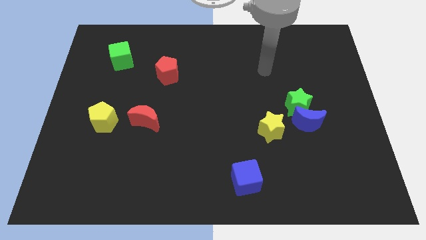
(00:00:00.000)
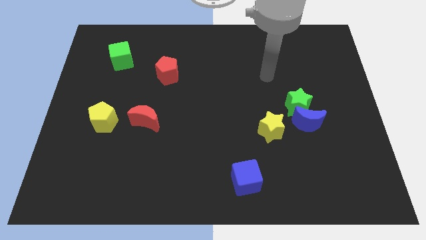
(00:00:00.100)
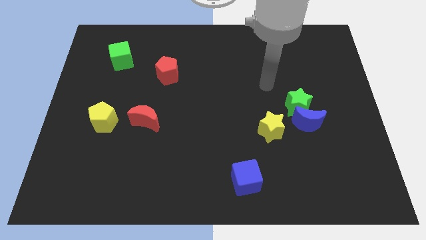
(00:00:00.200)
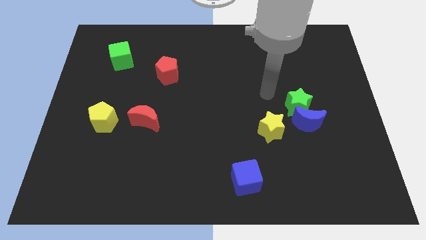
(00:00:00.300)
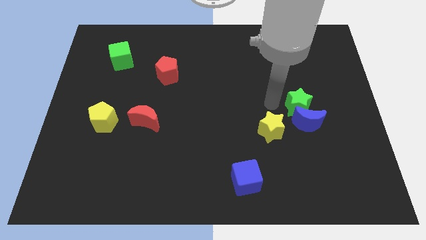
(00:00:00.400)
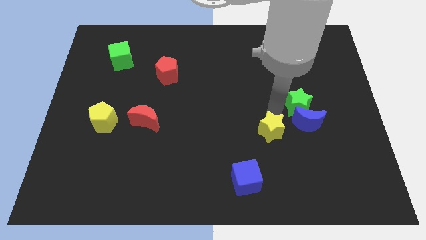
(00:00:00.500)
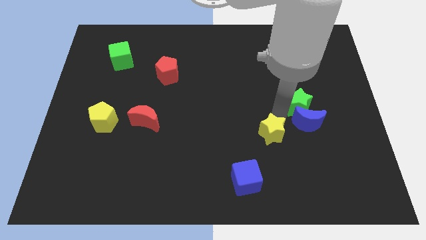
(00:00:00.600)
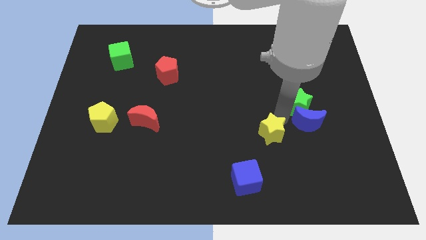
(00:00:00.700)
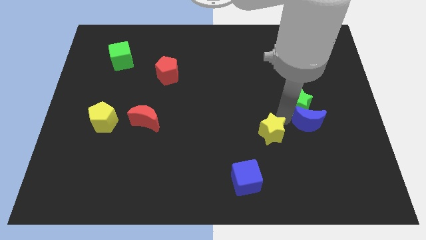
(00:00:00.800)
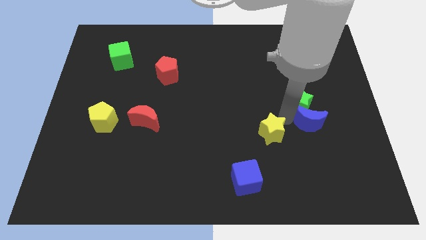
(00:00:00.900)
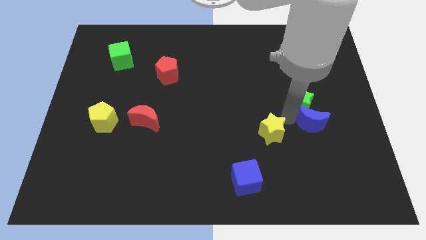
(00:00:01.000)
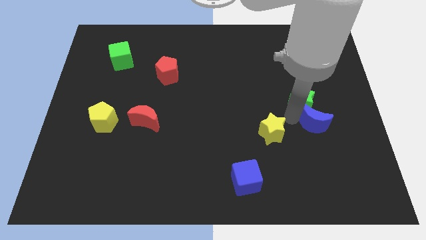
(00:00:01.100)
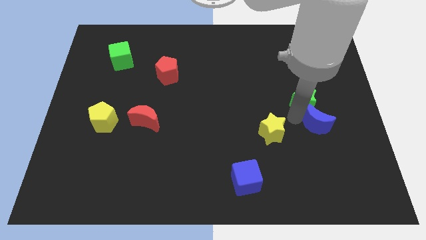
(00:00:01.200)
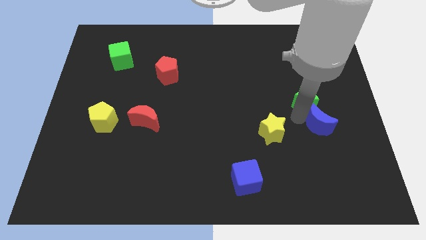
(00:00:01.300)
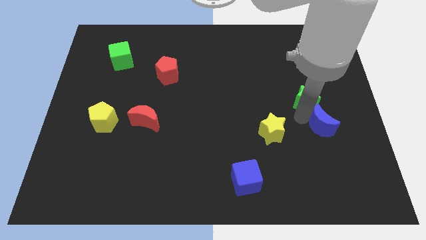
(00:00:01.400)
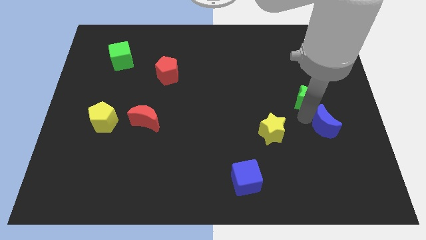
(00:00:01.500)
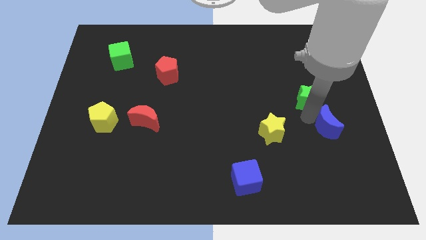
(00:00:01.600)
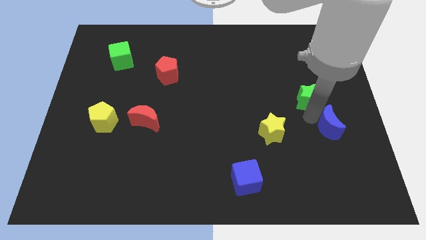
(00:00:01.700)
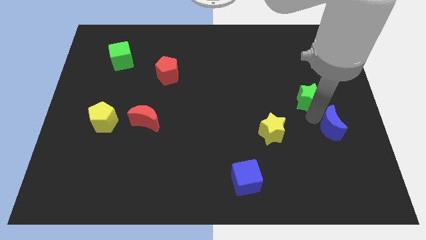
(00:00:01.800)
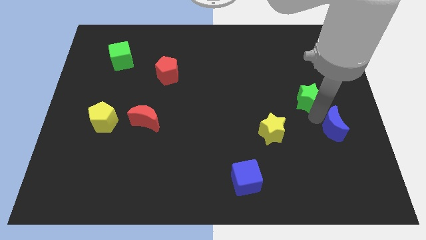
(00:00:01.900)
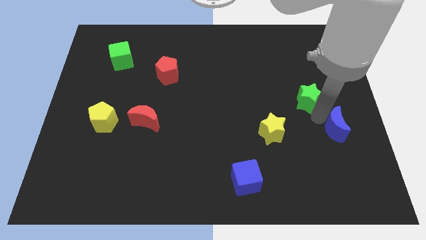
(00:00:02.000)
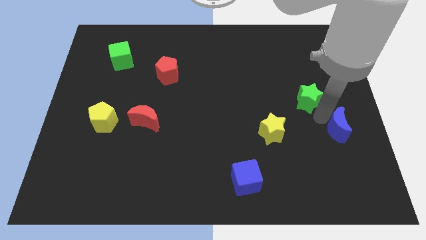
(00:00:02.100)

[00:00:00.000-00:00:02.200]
move the blue moon away from the green star and yellow star

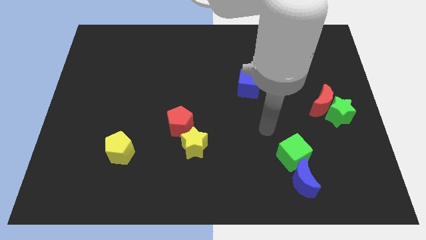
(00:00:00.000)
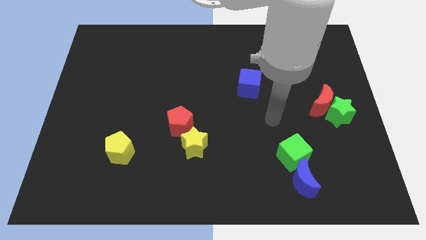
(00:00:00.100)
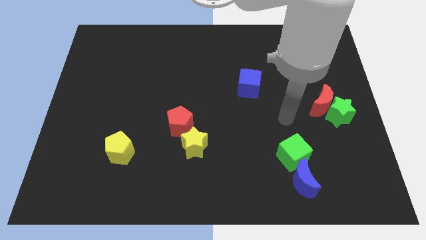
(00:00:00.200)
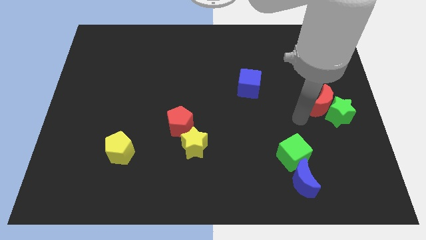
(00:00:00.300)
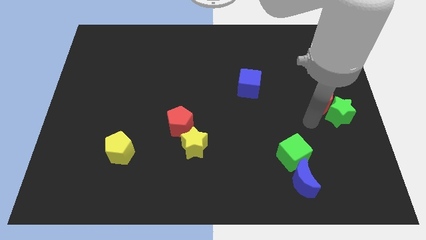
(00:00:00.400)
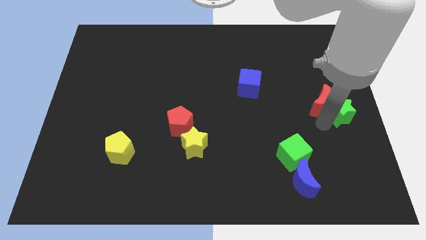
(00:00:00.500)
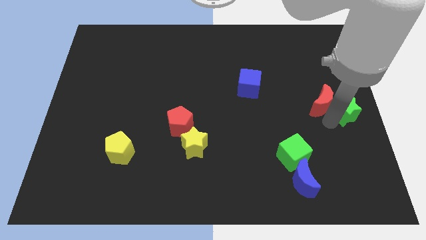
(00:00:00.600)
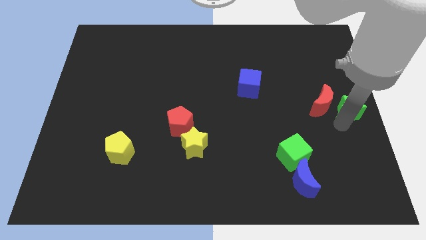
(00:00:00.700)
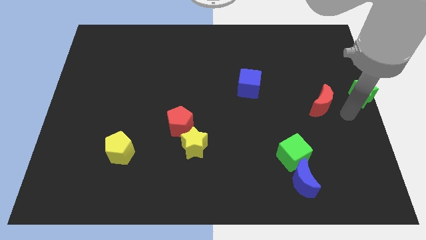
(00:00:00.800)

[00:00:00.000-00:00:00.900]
move the red moon away from the green star

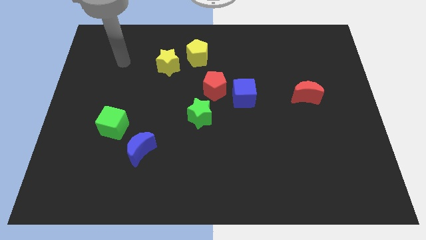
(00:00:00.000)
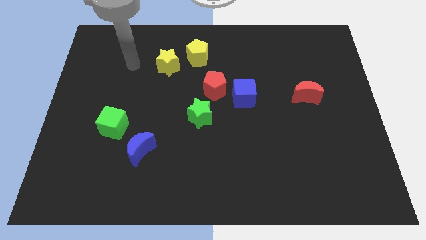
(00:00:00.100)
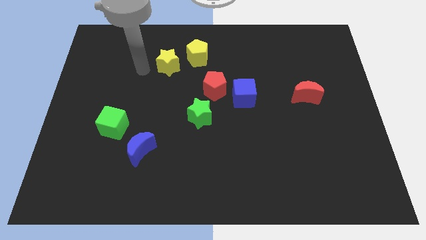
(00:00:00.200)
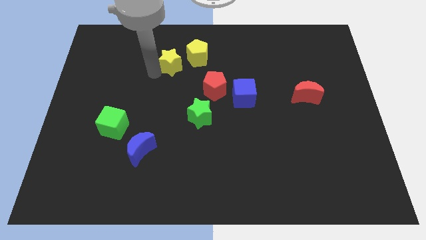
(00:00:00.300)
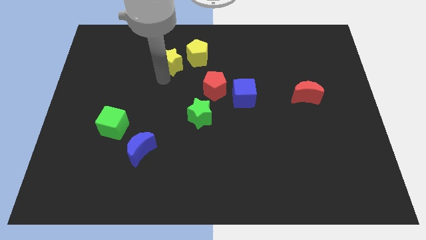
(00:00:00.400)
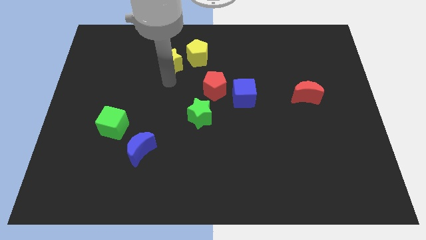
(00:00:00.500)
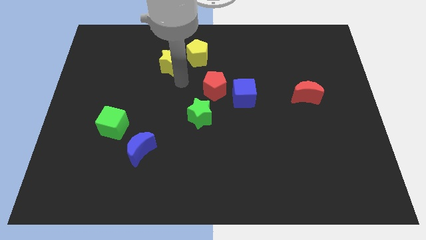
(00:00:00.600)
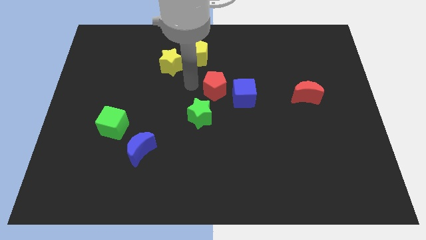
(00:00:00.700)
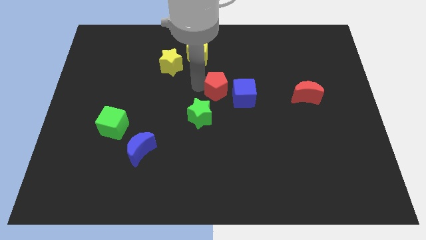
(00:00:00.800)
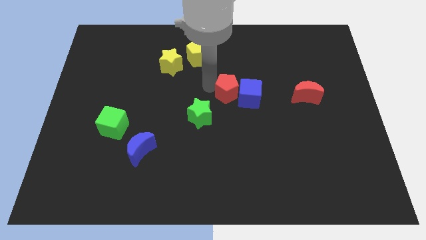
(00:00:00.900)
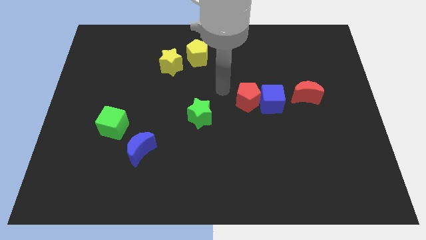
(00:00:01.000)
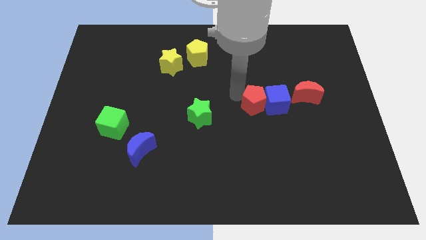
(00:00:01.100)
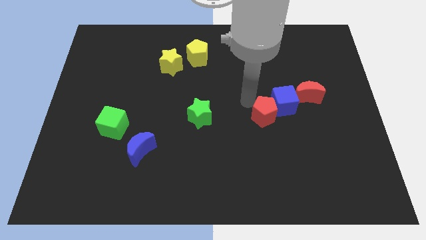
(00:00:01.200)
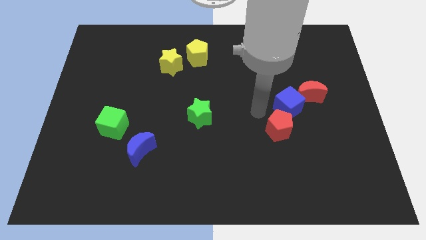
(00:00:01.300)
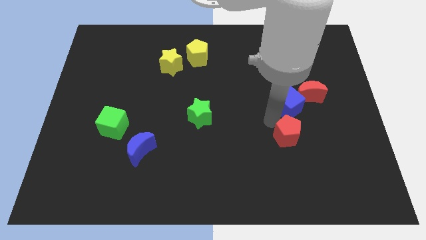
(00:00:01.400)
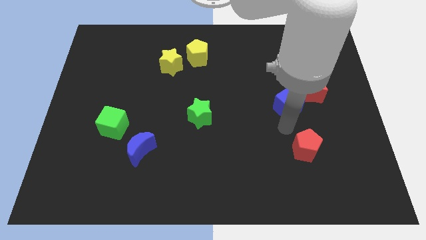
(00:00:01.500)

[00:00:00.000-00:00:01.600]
pull the blue cube apart from the red pentagon

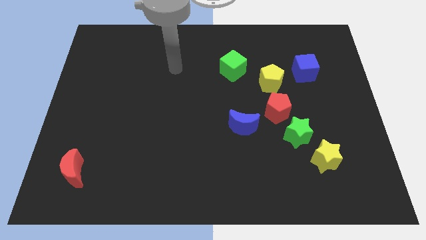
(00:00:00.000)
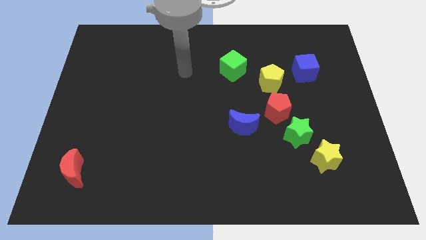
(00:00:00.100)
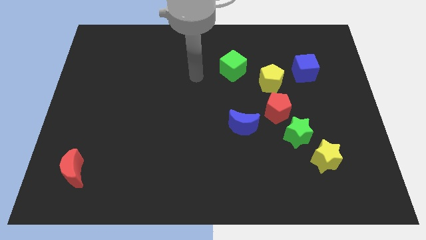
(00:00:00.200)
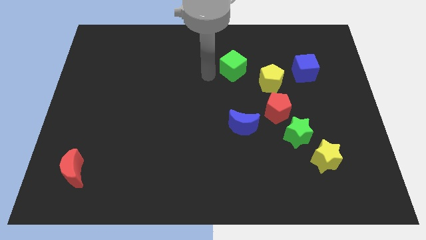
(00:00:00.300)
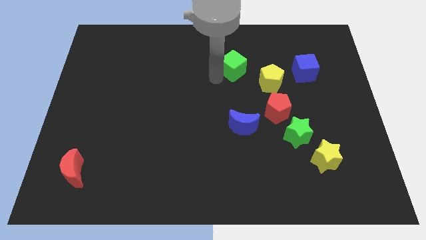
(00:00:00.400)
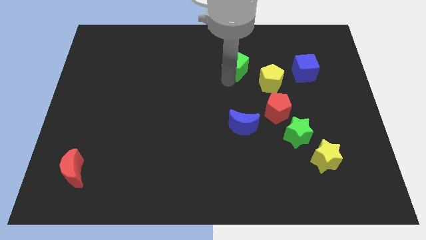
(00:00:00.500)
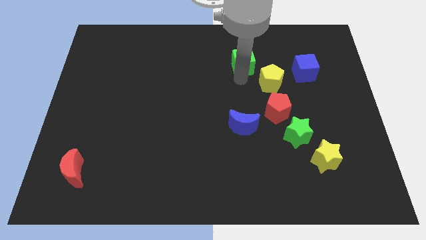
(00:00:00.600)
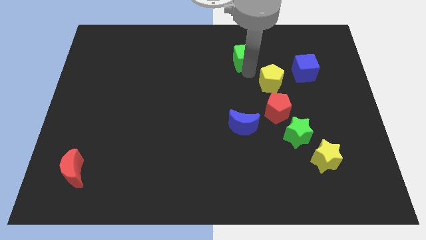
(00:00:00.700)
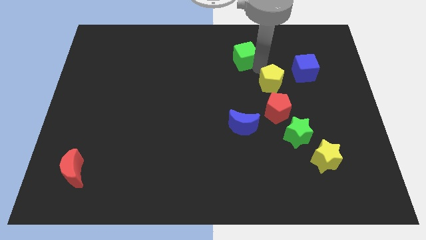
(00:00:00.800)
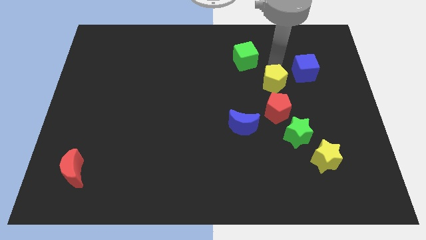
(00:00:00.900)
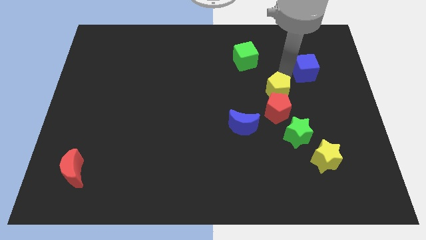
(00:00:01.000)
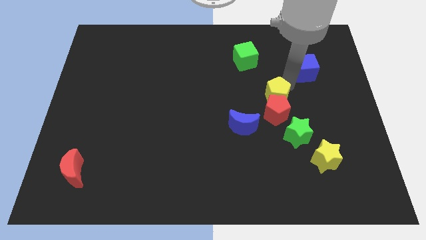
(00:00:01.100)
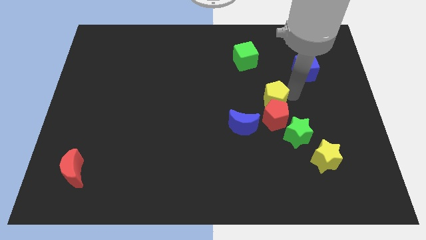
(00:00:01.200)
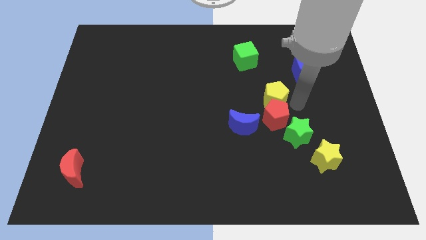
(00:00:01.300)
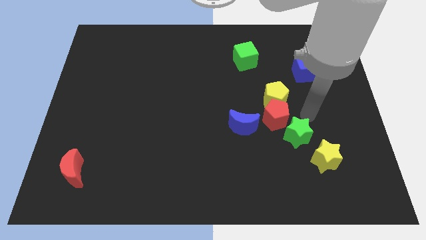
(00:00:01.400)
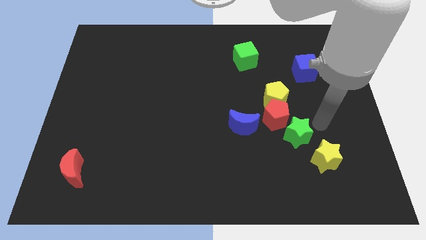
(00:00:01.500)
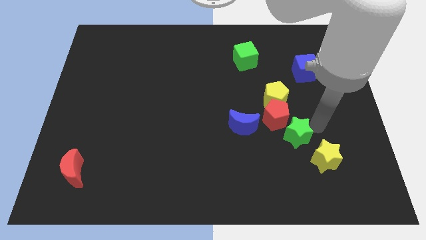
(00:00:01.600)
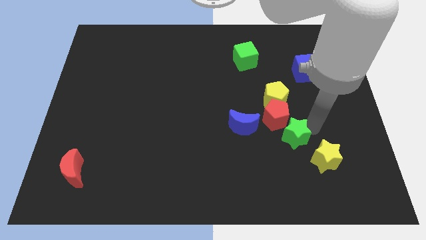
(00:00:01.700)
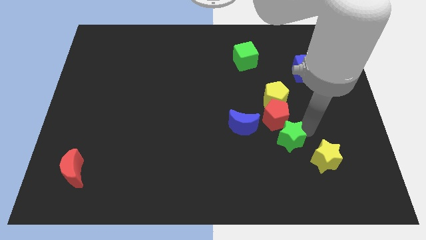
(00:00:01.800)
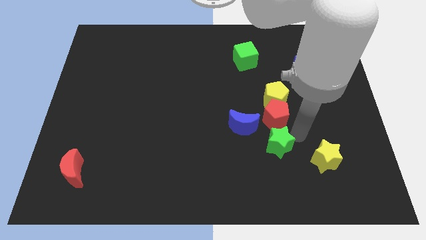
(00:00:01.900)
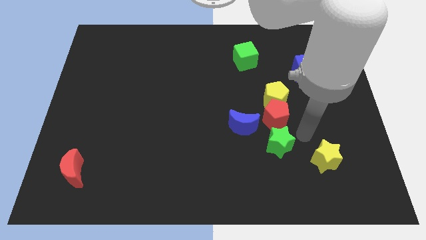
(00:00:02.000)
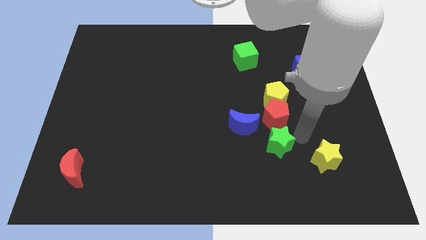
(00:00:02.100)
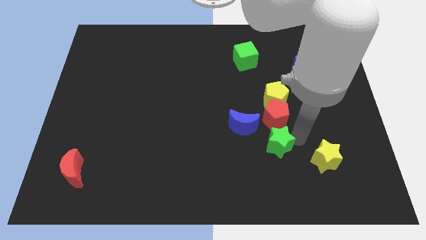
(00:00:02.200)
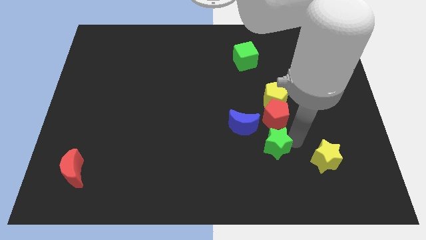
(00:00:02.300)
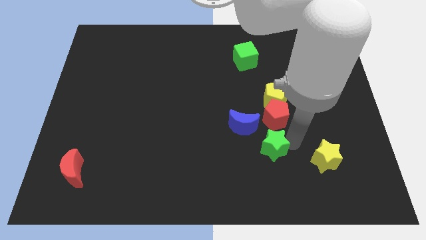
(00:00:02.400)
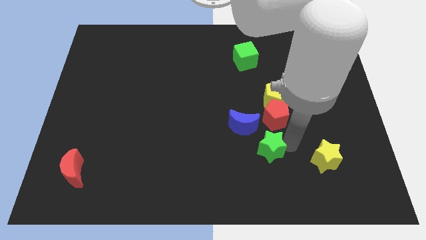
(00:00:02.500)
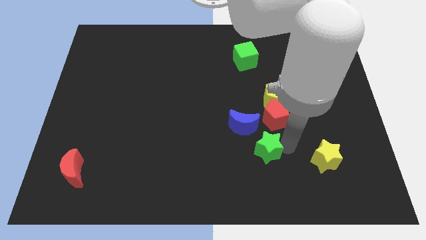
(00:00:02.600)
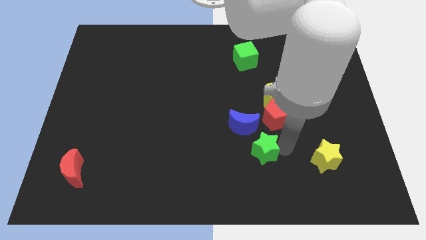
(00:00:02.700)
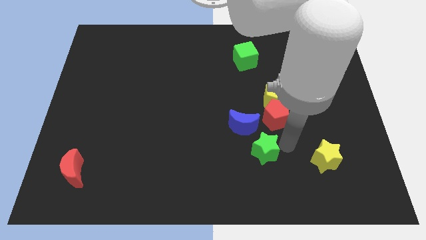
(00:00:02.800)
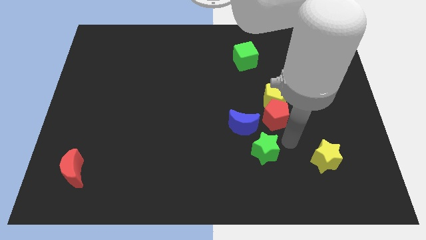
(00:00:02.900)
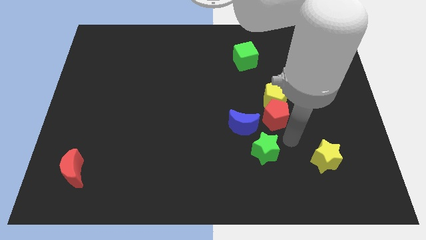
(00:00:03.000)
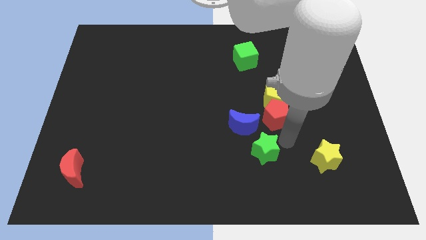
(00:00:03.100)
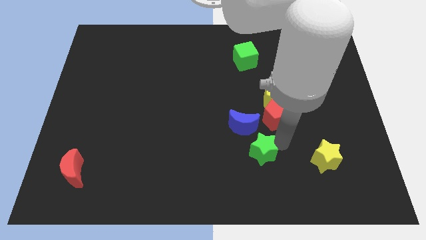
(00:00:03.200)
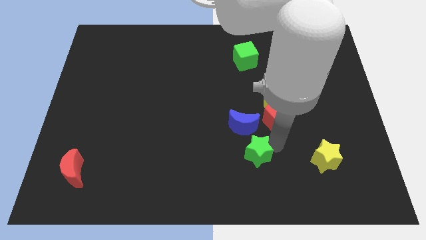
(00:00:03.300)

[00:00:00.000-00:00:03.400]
separate the green star from the red pentagon and yellow star

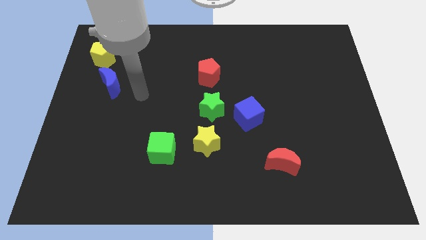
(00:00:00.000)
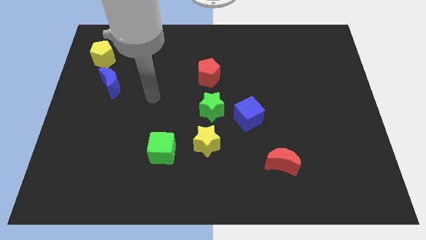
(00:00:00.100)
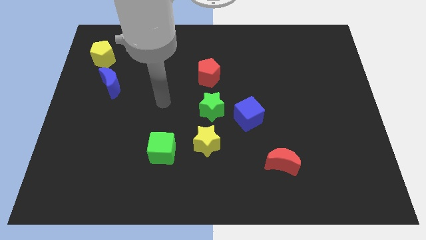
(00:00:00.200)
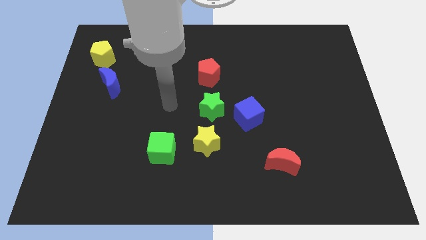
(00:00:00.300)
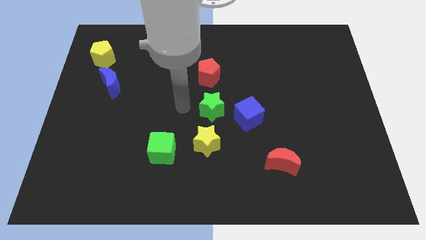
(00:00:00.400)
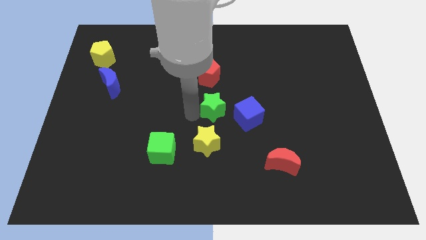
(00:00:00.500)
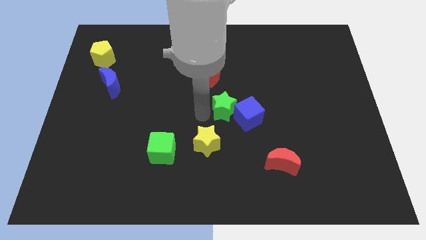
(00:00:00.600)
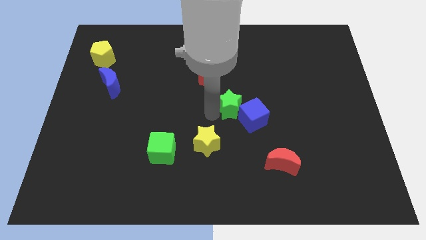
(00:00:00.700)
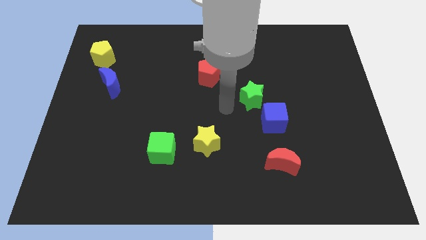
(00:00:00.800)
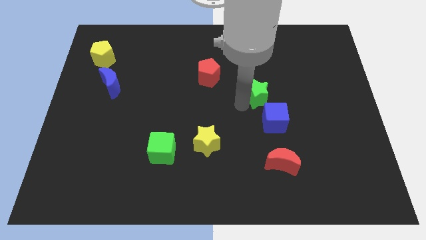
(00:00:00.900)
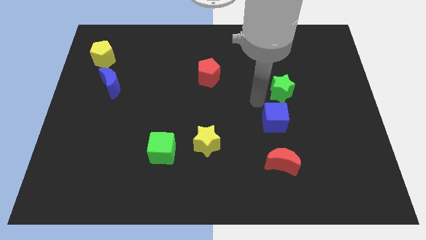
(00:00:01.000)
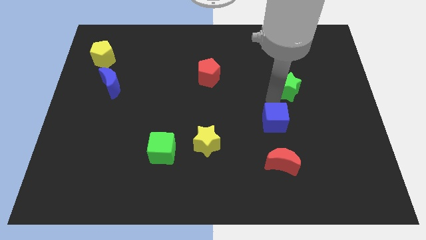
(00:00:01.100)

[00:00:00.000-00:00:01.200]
separate the blue cube from the green star
